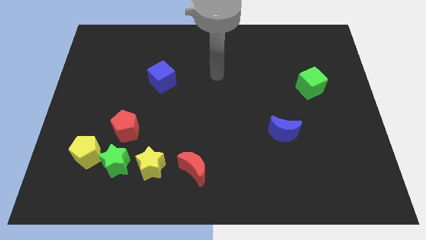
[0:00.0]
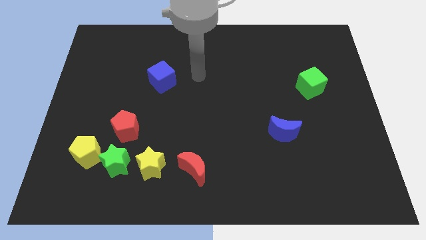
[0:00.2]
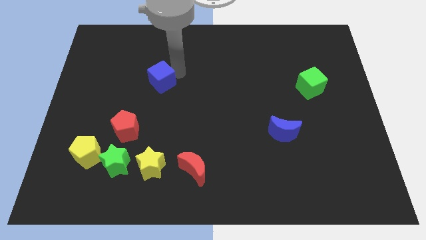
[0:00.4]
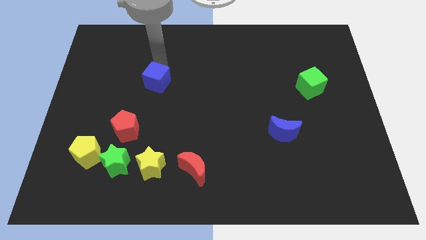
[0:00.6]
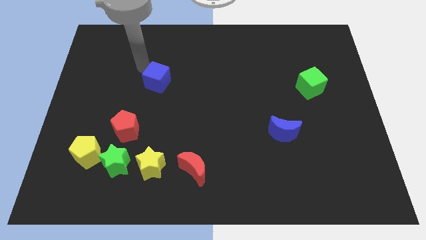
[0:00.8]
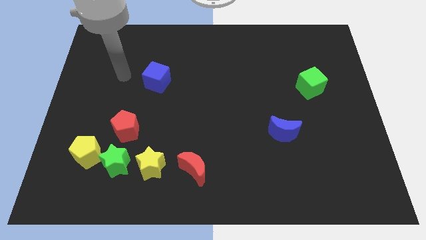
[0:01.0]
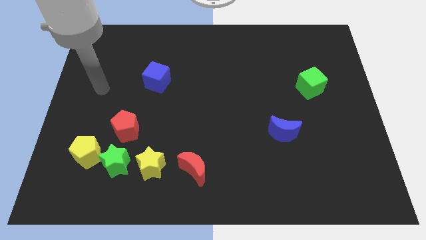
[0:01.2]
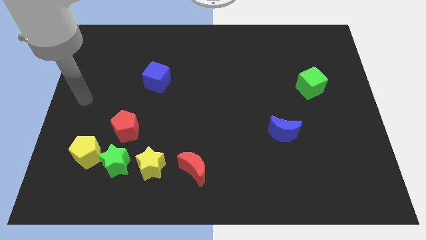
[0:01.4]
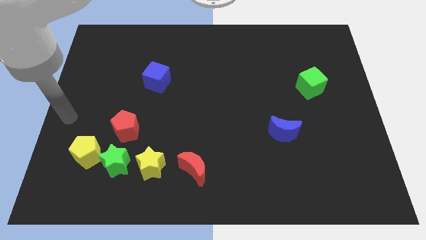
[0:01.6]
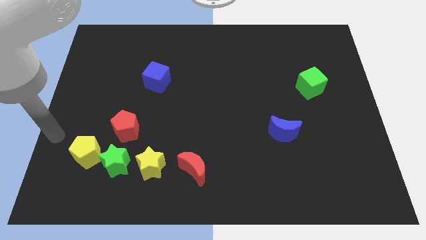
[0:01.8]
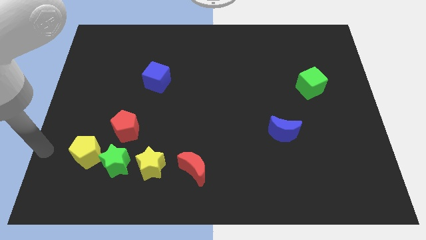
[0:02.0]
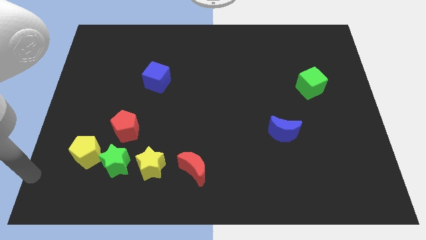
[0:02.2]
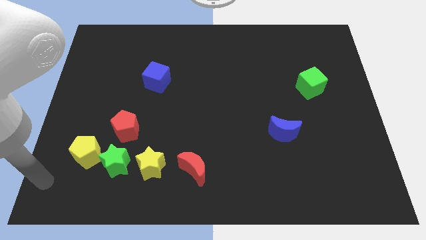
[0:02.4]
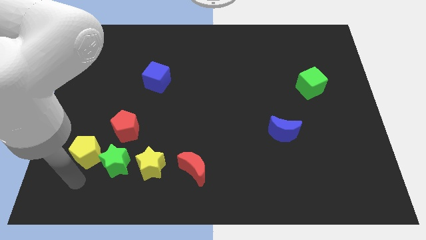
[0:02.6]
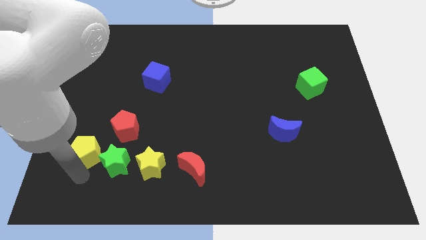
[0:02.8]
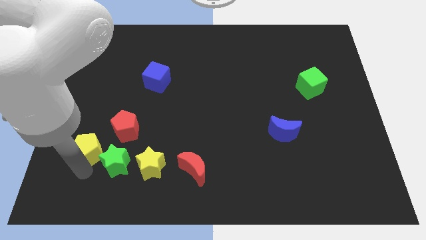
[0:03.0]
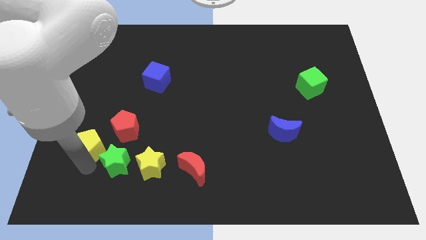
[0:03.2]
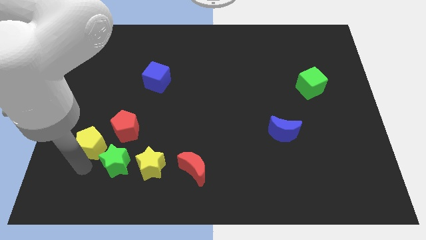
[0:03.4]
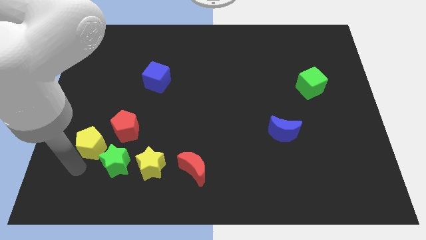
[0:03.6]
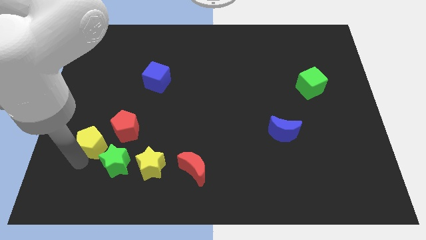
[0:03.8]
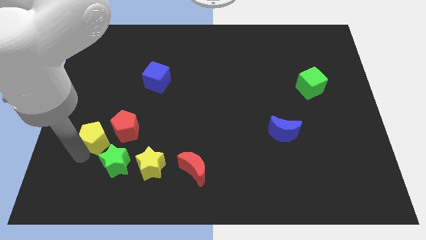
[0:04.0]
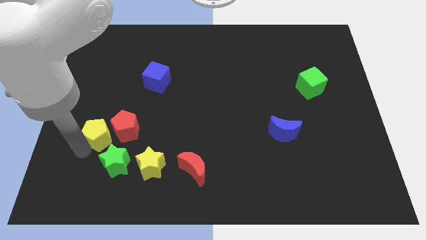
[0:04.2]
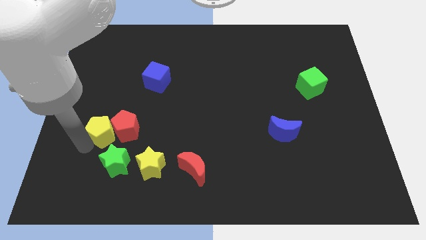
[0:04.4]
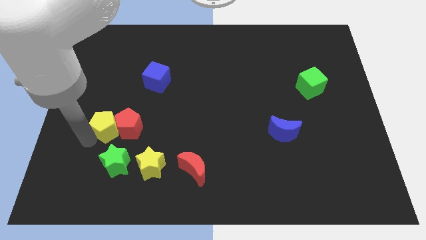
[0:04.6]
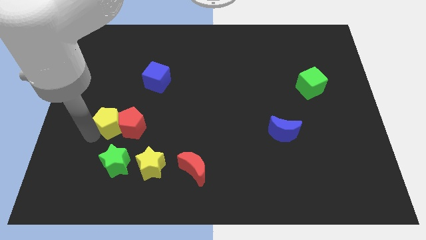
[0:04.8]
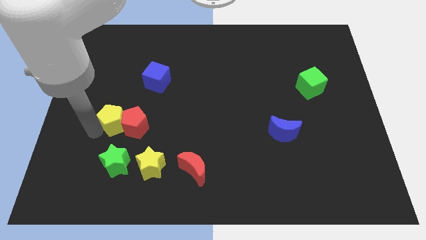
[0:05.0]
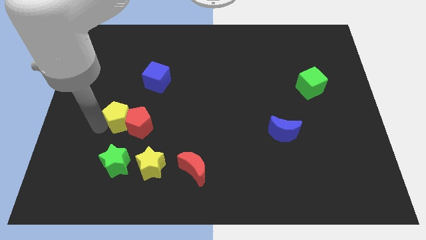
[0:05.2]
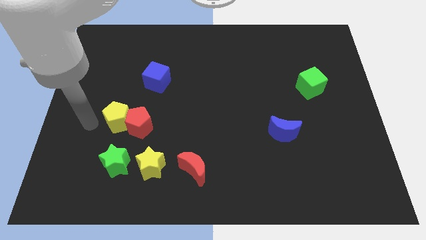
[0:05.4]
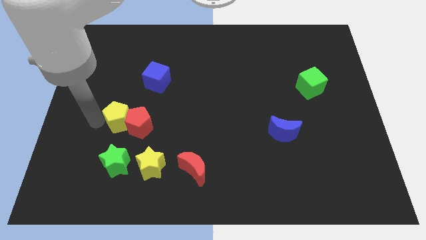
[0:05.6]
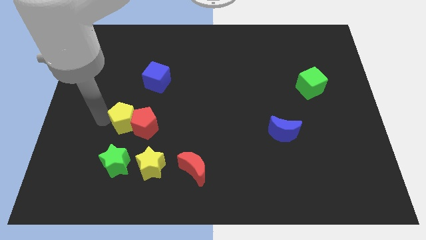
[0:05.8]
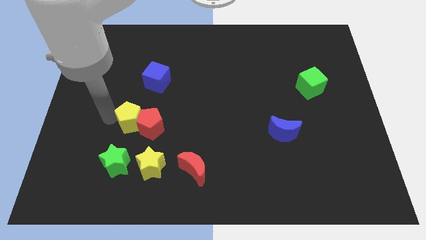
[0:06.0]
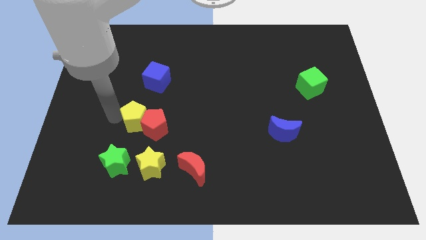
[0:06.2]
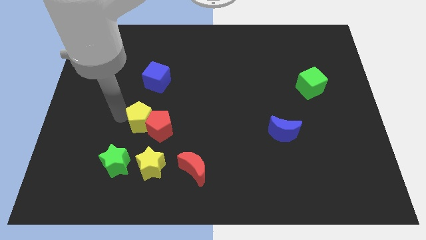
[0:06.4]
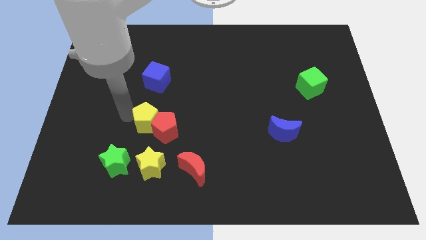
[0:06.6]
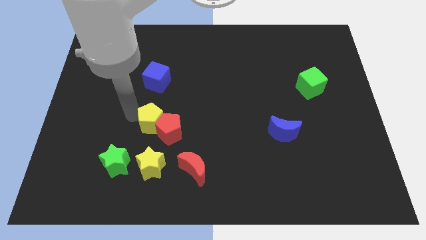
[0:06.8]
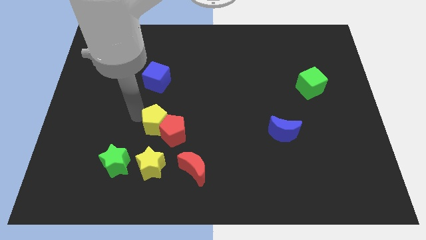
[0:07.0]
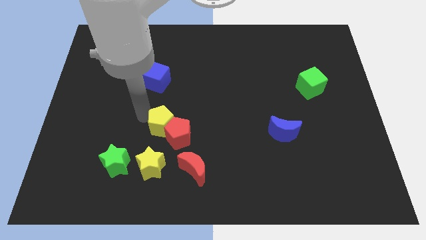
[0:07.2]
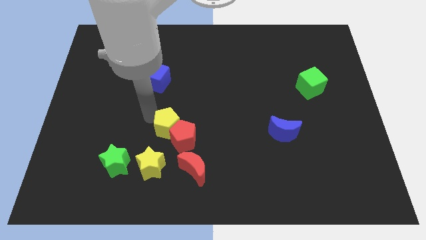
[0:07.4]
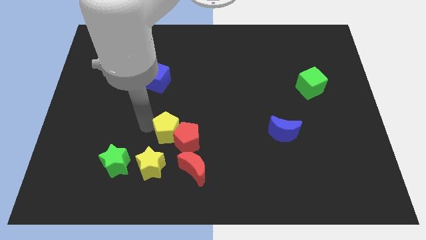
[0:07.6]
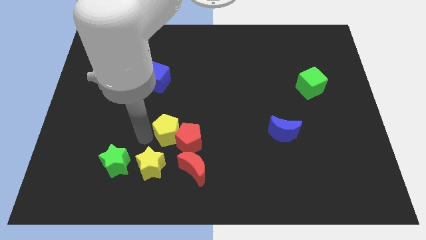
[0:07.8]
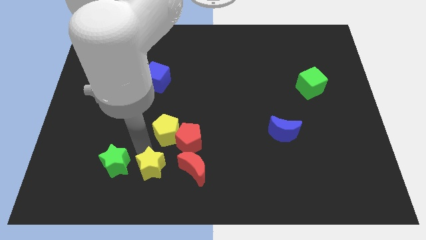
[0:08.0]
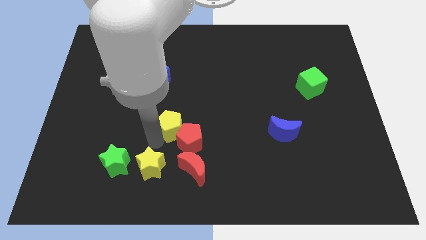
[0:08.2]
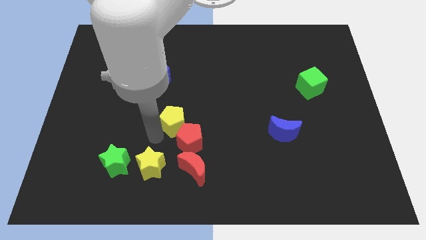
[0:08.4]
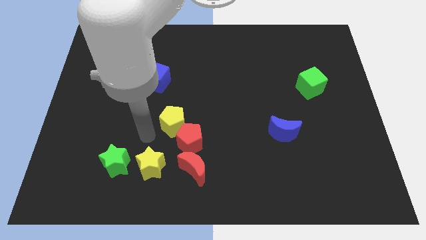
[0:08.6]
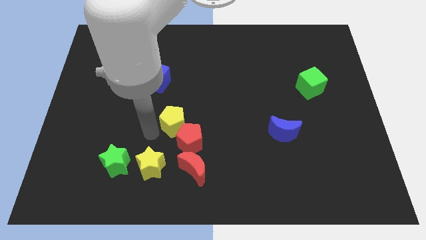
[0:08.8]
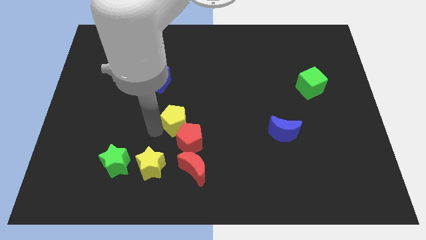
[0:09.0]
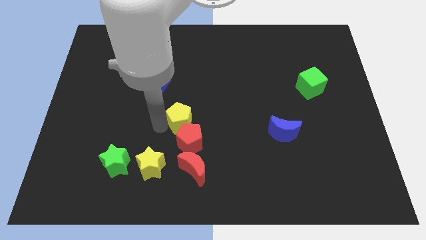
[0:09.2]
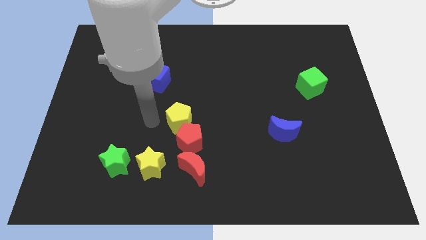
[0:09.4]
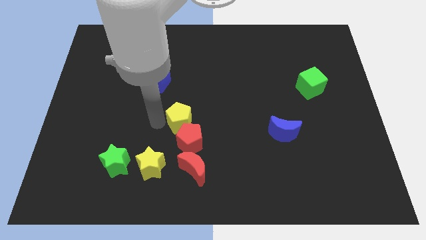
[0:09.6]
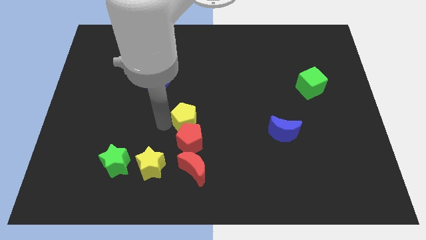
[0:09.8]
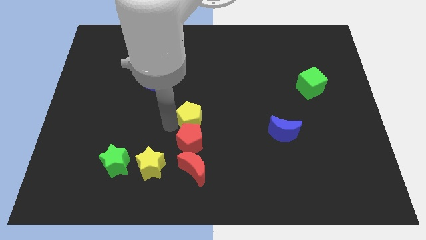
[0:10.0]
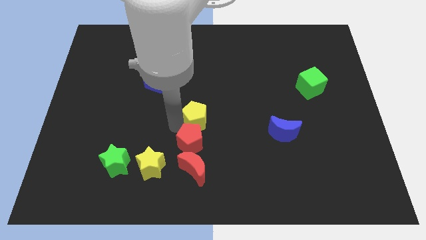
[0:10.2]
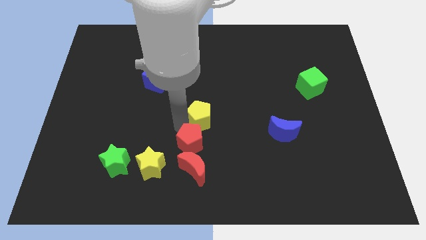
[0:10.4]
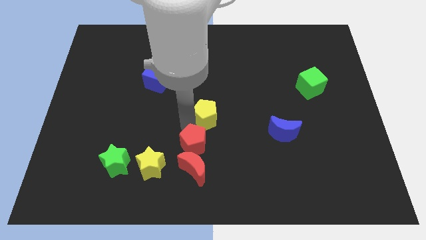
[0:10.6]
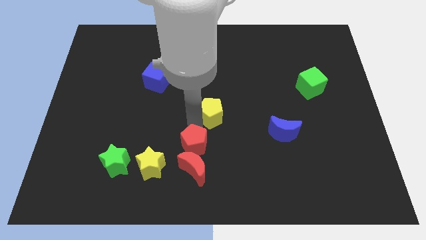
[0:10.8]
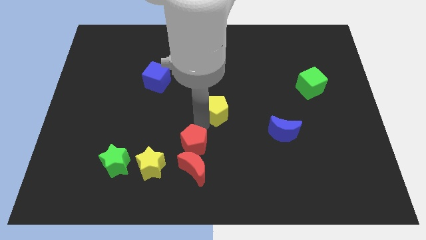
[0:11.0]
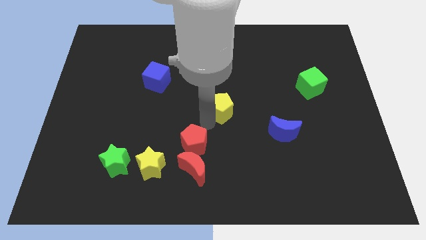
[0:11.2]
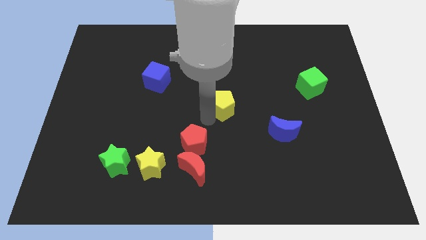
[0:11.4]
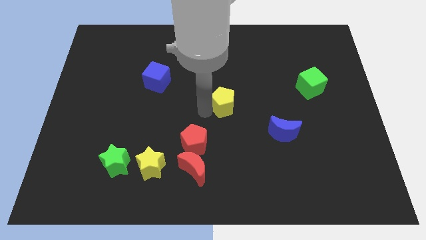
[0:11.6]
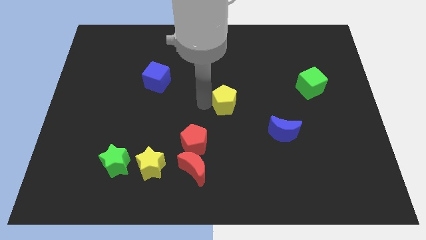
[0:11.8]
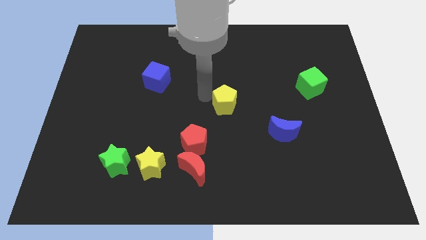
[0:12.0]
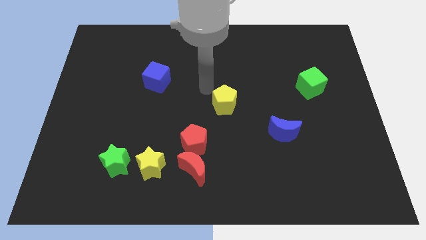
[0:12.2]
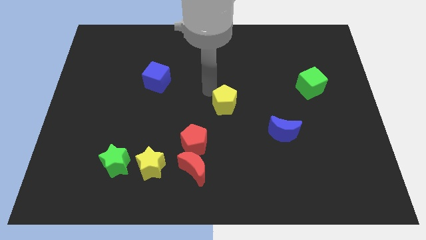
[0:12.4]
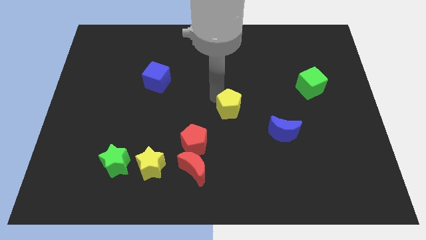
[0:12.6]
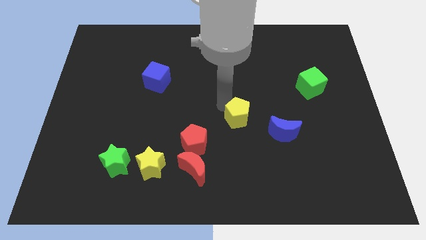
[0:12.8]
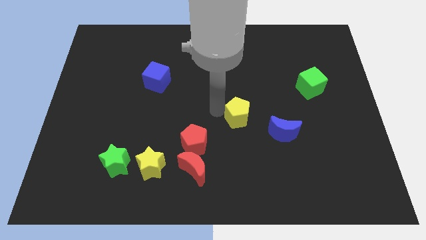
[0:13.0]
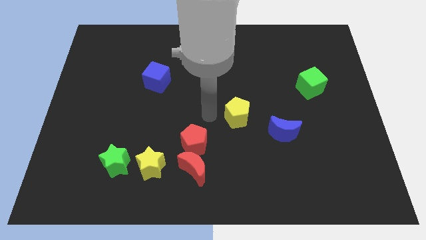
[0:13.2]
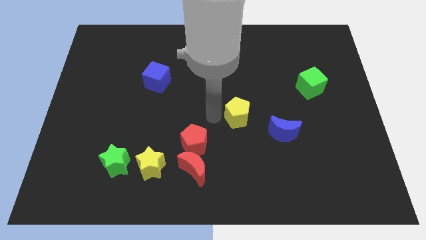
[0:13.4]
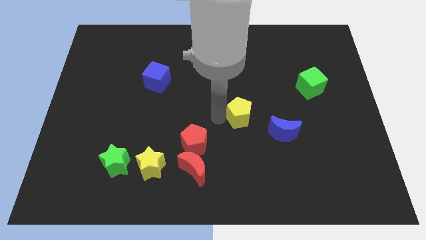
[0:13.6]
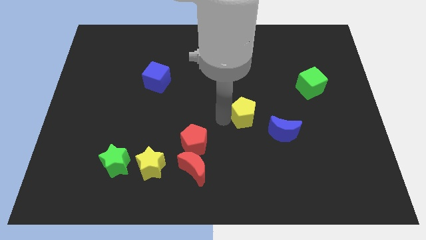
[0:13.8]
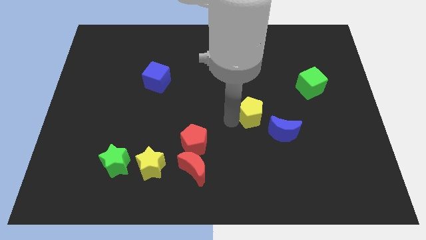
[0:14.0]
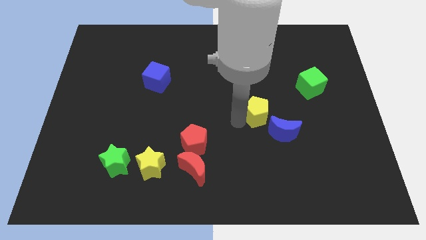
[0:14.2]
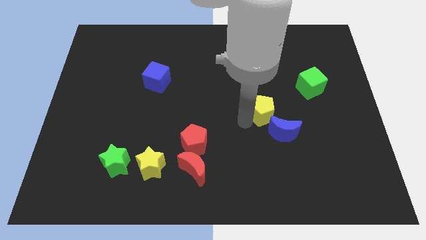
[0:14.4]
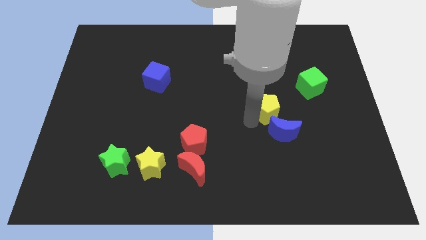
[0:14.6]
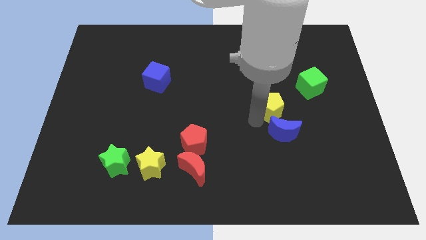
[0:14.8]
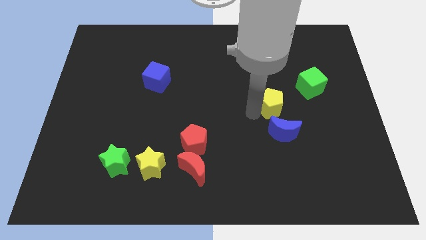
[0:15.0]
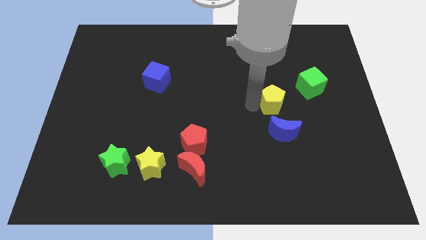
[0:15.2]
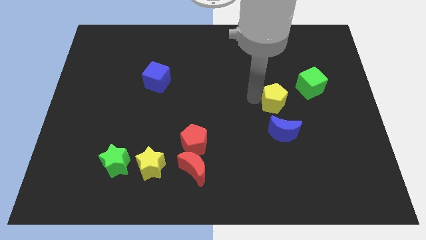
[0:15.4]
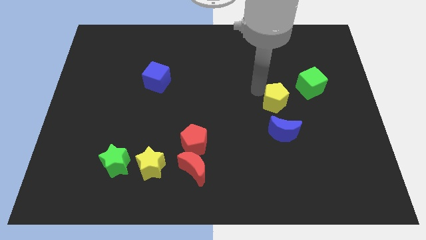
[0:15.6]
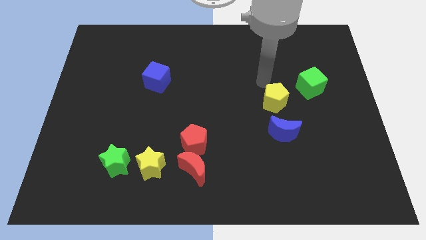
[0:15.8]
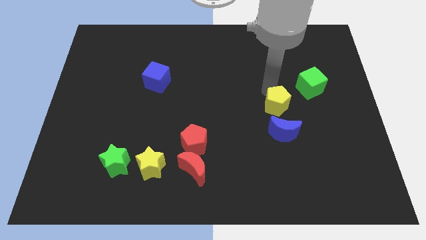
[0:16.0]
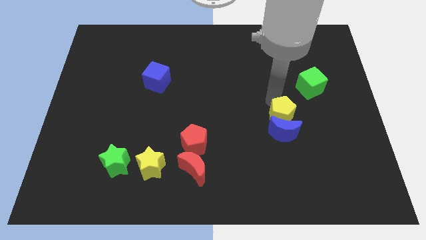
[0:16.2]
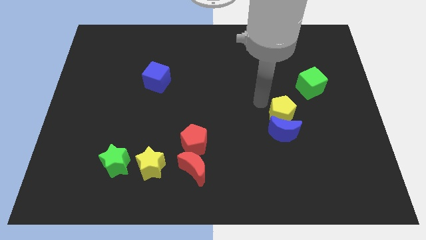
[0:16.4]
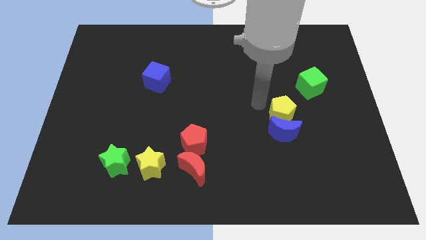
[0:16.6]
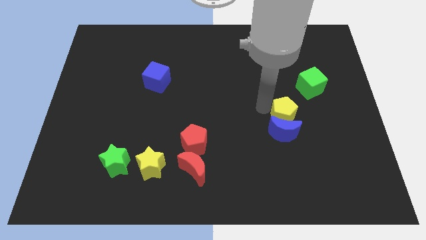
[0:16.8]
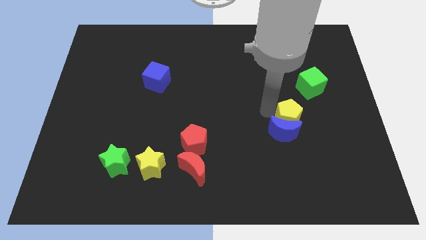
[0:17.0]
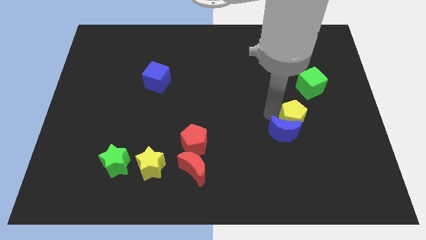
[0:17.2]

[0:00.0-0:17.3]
slide the yellow pentagon to the right side of the blue moon
